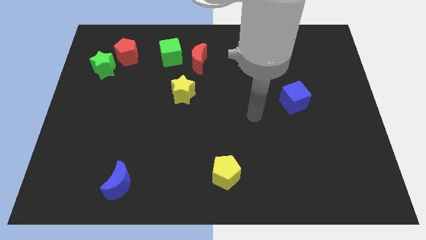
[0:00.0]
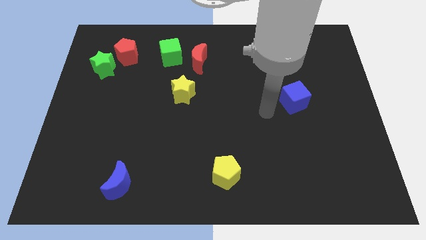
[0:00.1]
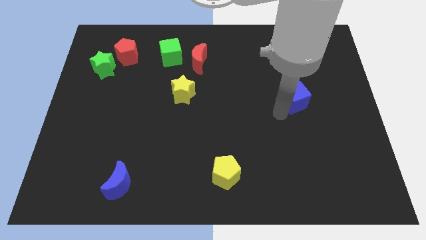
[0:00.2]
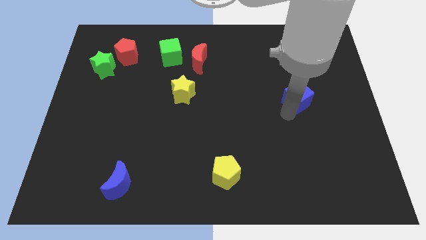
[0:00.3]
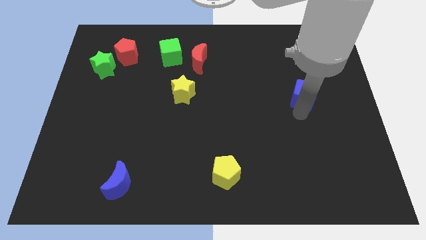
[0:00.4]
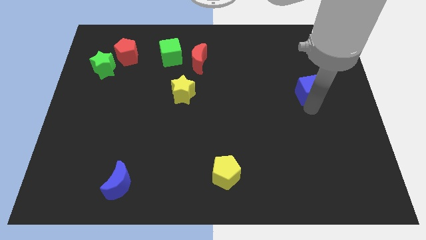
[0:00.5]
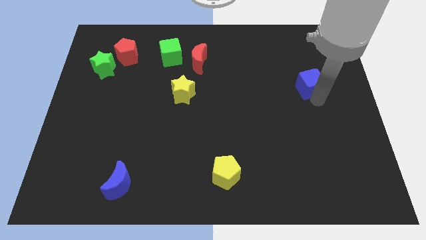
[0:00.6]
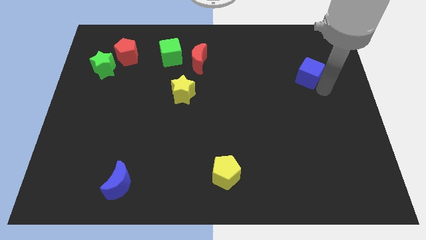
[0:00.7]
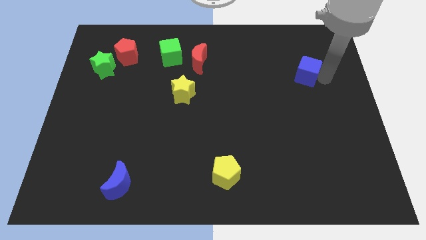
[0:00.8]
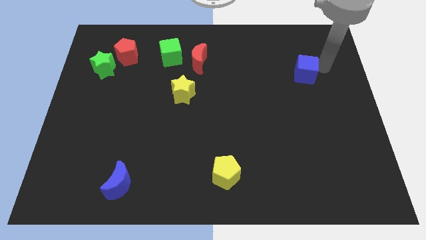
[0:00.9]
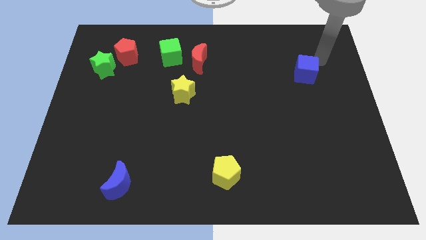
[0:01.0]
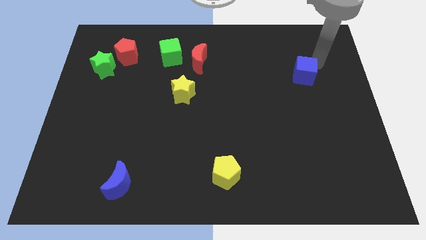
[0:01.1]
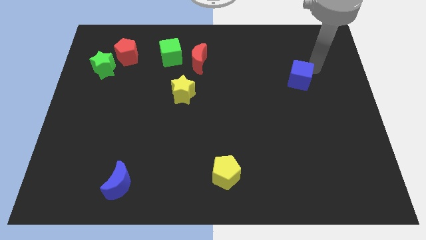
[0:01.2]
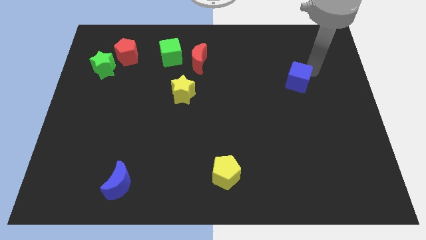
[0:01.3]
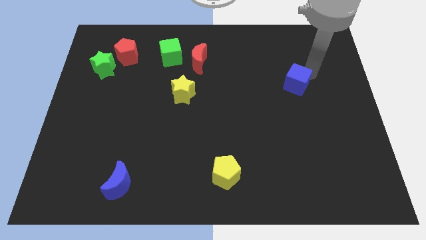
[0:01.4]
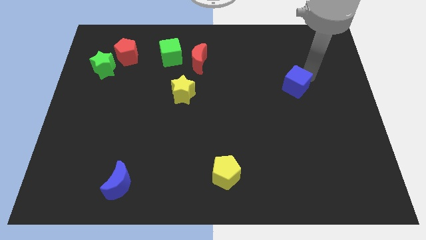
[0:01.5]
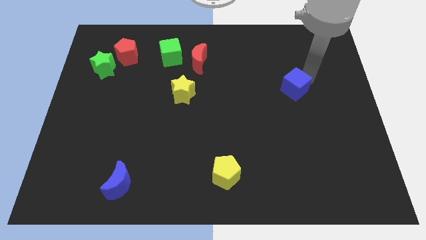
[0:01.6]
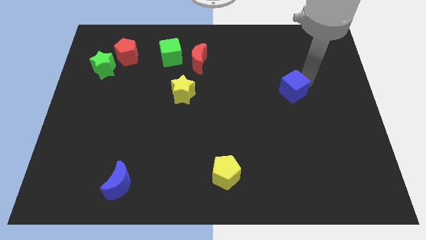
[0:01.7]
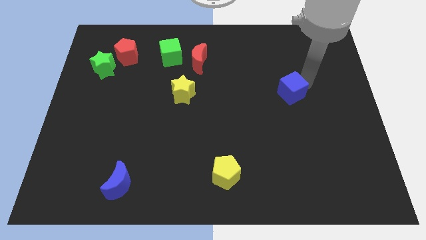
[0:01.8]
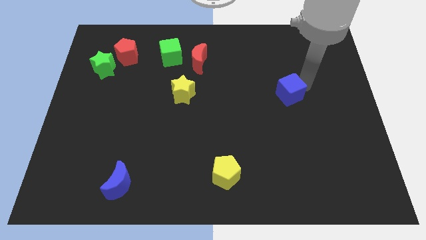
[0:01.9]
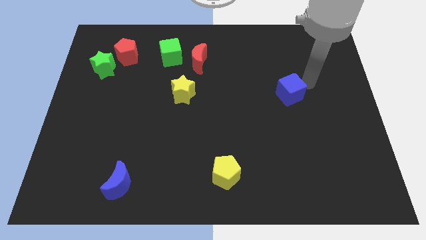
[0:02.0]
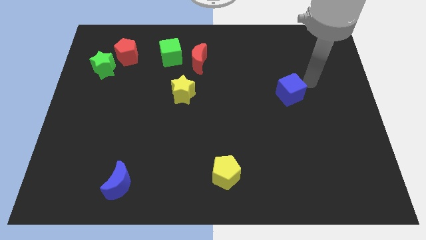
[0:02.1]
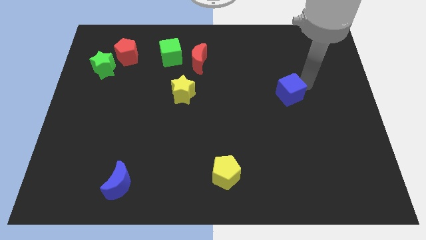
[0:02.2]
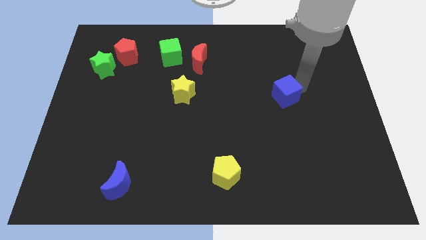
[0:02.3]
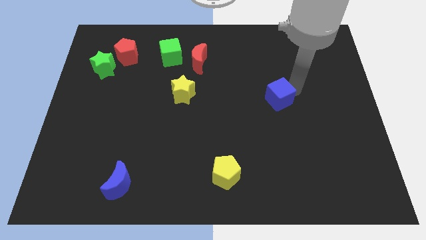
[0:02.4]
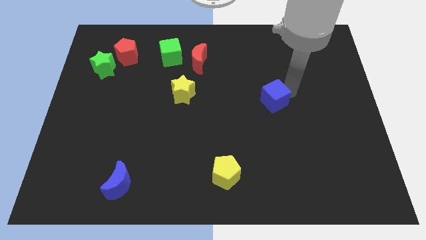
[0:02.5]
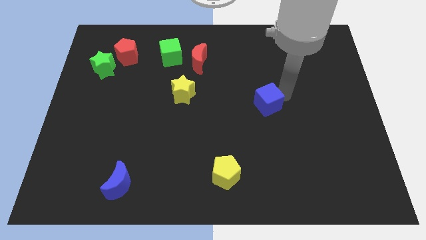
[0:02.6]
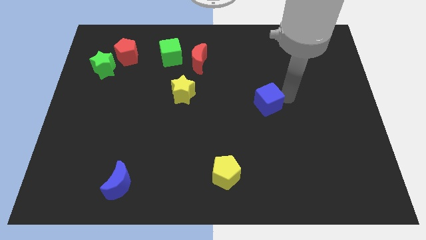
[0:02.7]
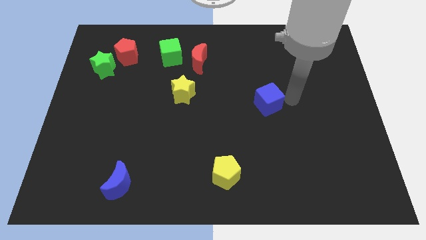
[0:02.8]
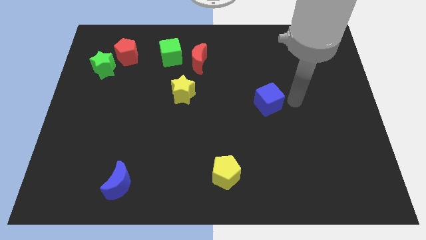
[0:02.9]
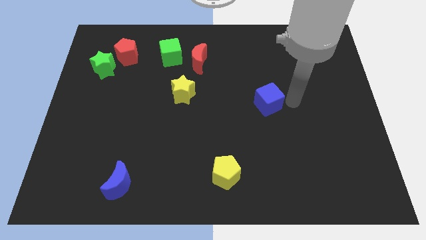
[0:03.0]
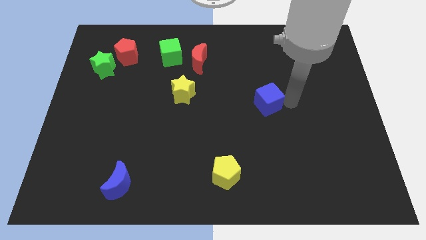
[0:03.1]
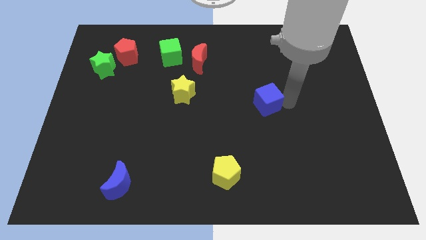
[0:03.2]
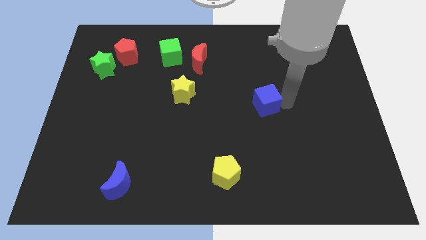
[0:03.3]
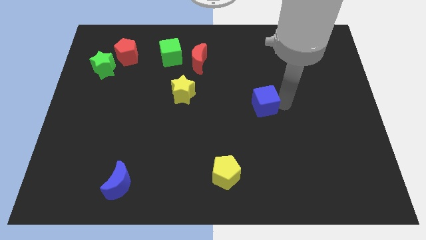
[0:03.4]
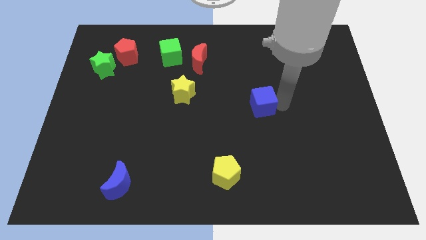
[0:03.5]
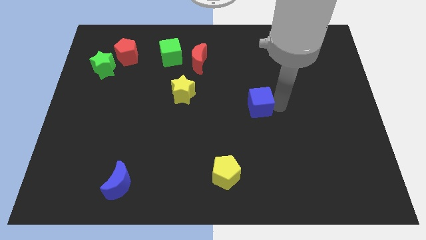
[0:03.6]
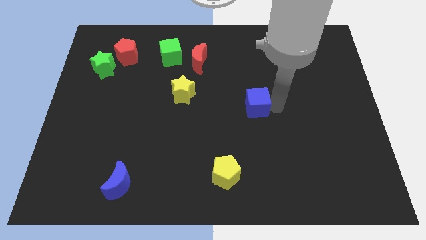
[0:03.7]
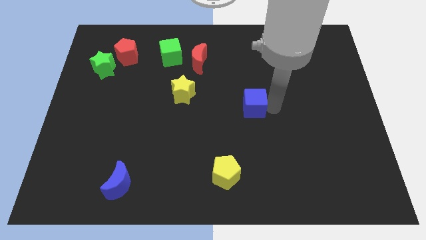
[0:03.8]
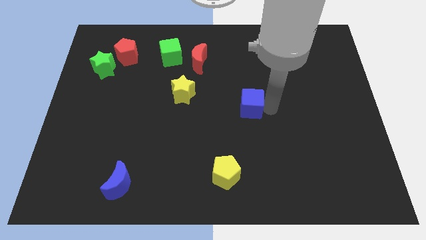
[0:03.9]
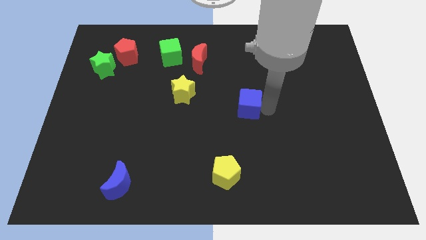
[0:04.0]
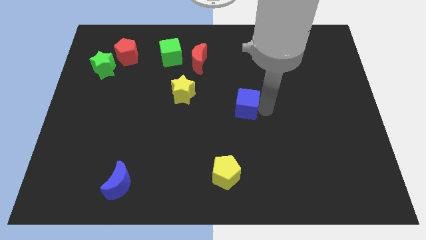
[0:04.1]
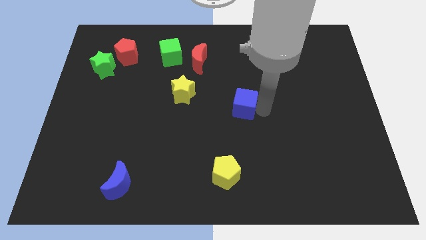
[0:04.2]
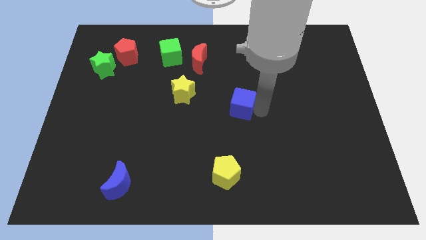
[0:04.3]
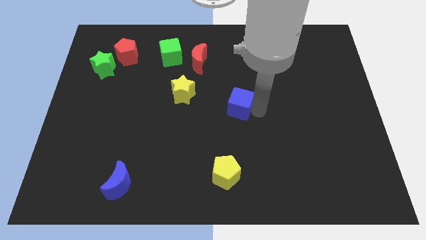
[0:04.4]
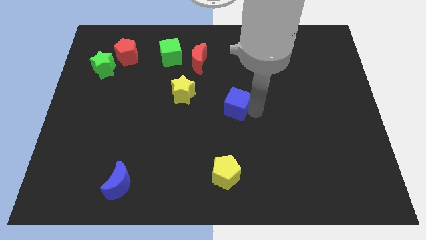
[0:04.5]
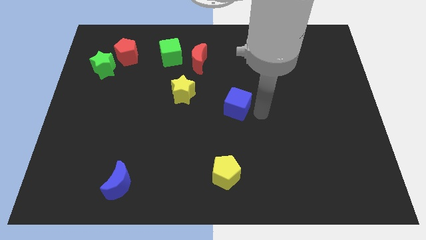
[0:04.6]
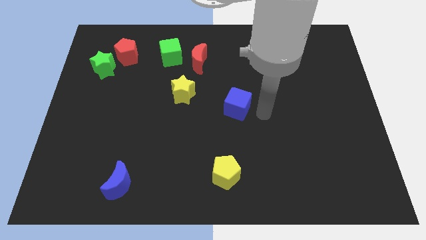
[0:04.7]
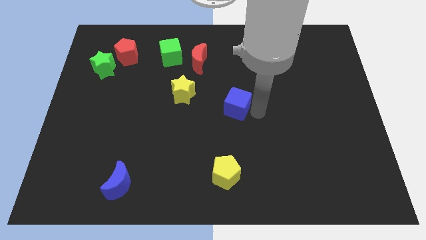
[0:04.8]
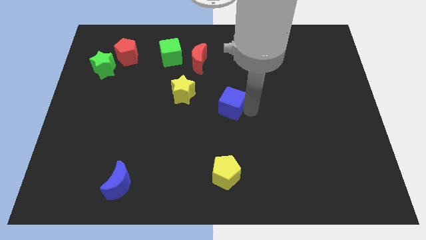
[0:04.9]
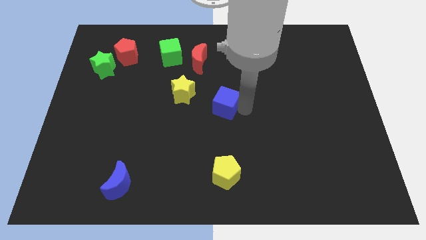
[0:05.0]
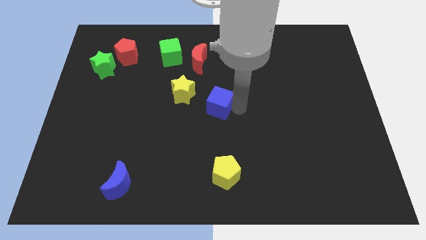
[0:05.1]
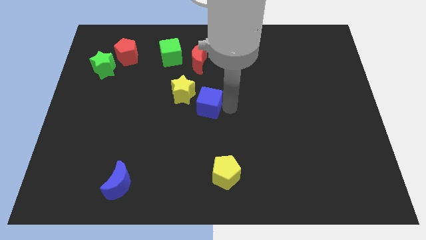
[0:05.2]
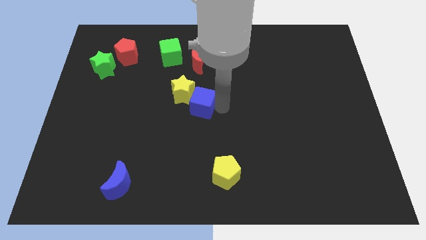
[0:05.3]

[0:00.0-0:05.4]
move the blue cube towards the yellow star

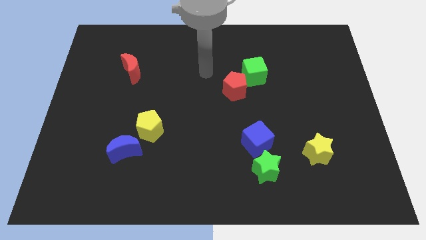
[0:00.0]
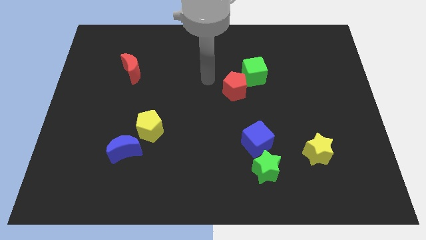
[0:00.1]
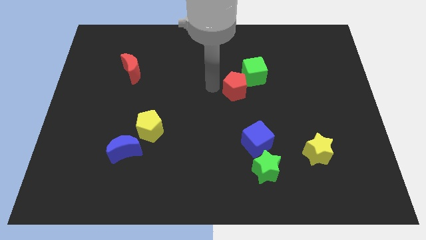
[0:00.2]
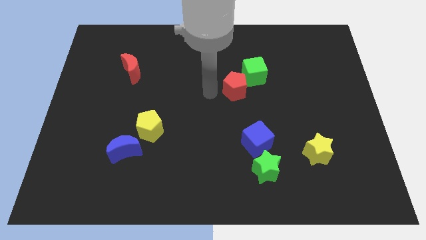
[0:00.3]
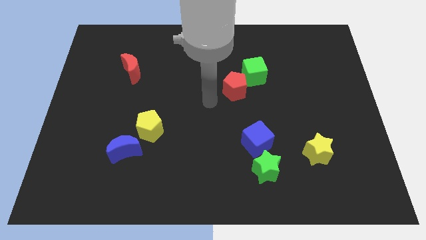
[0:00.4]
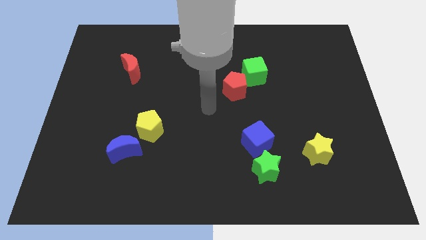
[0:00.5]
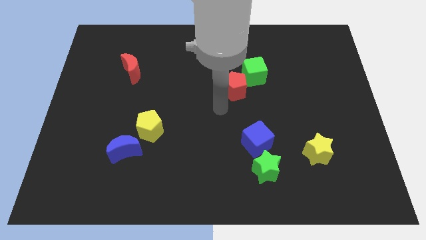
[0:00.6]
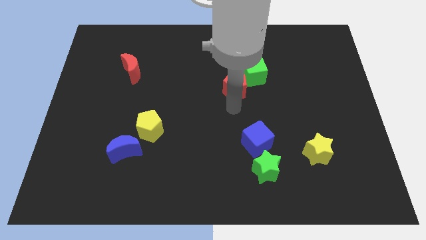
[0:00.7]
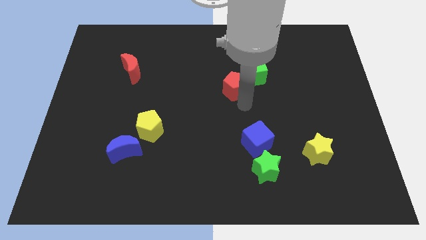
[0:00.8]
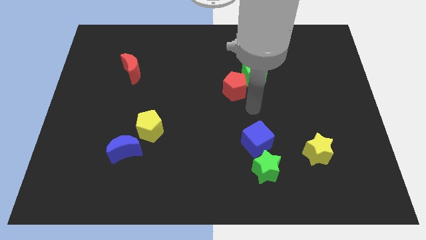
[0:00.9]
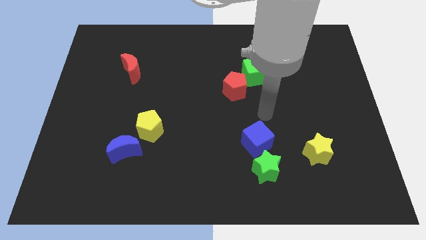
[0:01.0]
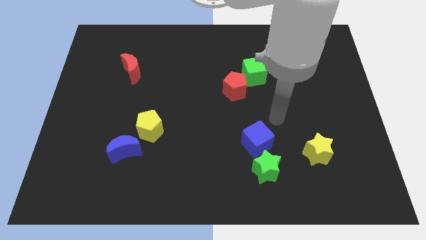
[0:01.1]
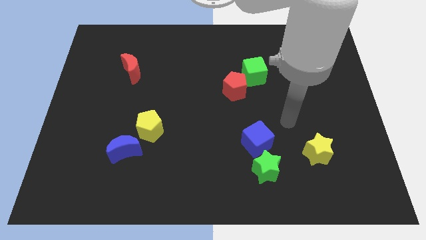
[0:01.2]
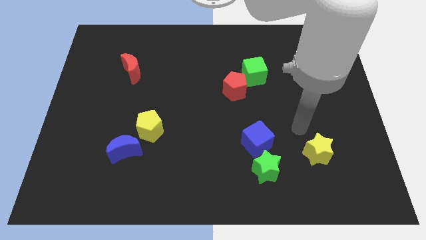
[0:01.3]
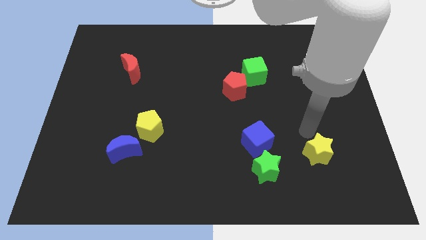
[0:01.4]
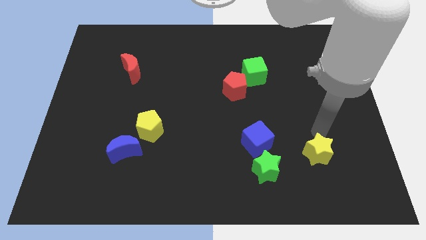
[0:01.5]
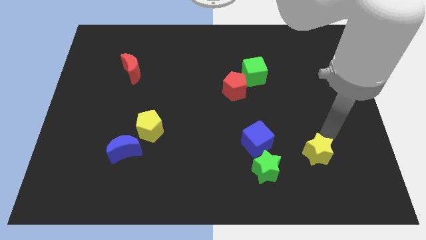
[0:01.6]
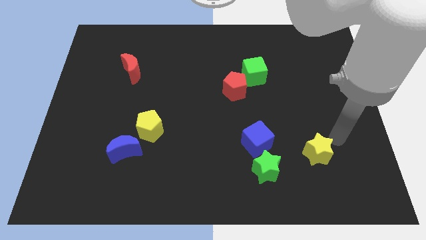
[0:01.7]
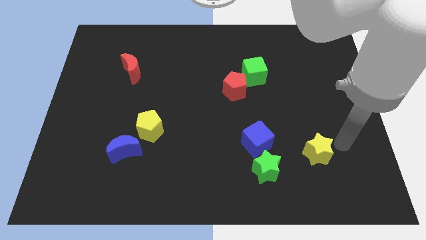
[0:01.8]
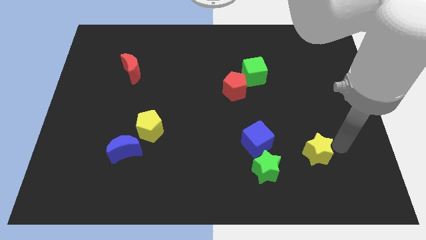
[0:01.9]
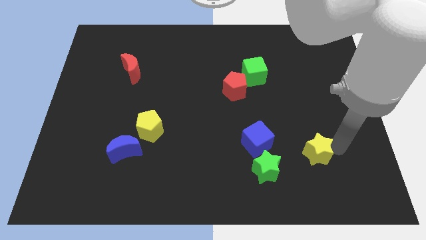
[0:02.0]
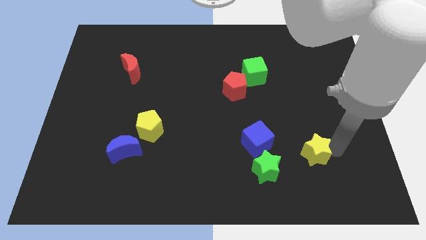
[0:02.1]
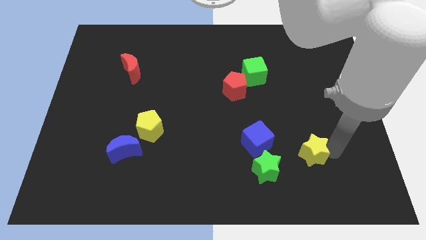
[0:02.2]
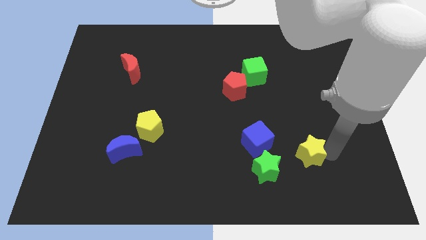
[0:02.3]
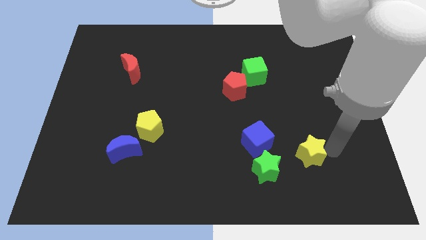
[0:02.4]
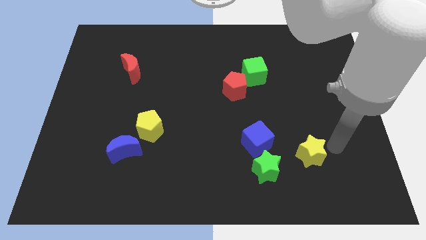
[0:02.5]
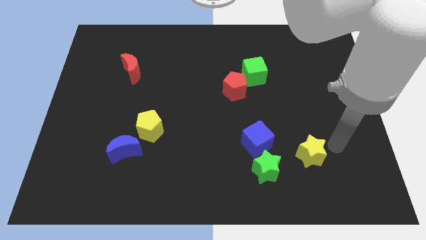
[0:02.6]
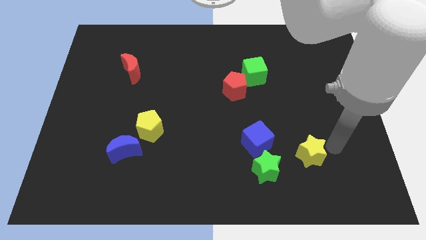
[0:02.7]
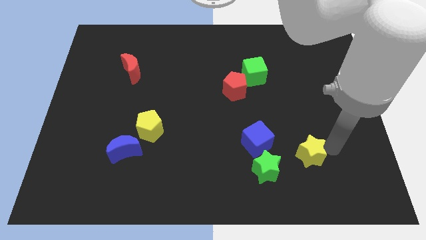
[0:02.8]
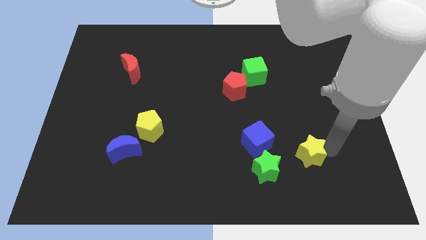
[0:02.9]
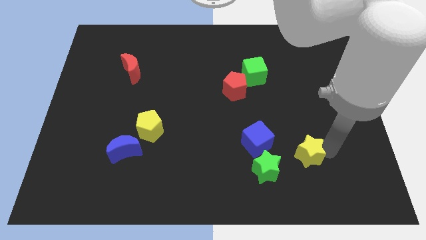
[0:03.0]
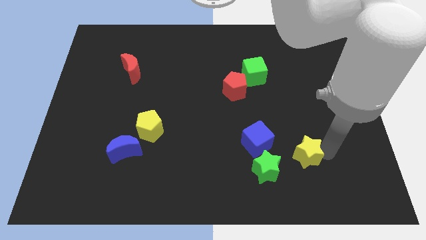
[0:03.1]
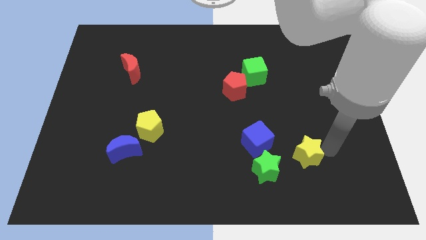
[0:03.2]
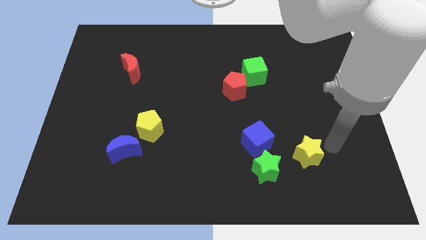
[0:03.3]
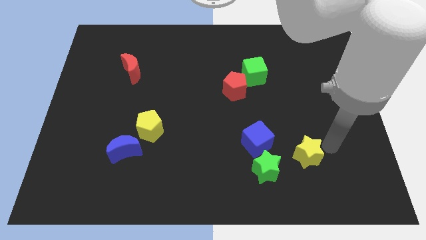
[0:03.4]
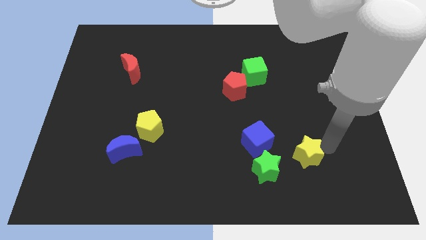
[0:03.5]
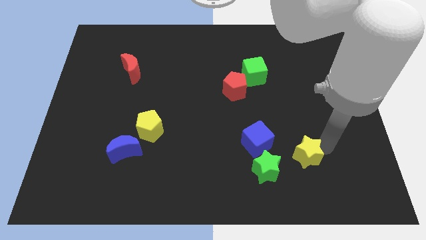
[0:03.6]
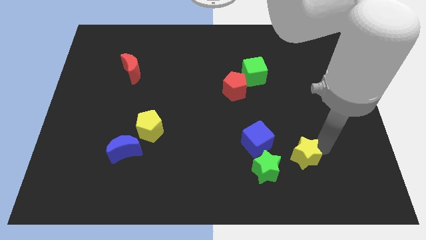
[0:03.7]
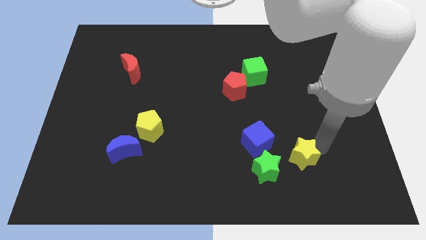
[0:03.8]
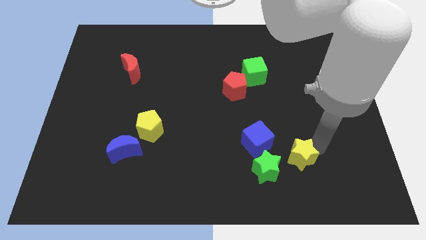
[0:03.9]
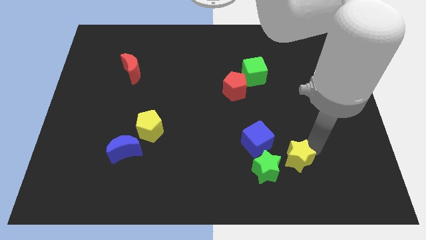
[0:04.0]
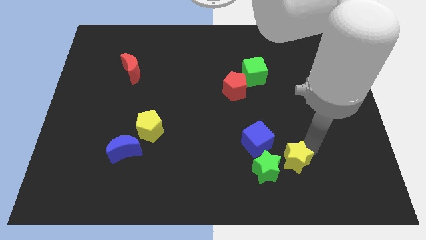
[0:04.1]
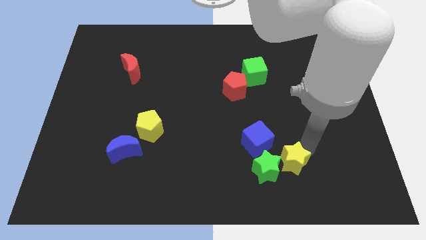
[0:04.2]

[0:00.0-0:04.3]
slide the yellow star close to the green star
